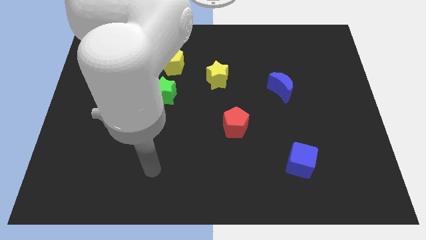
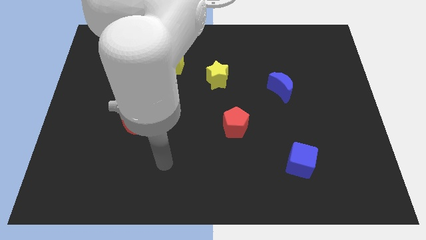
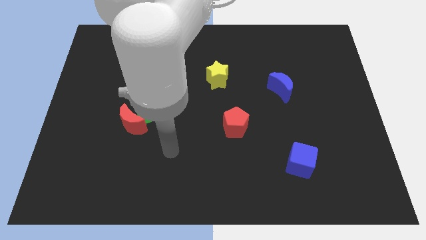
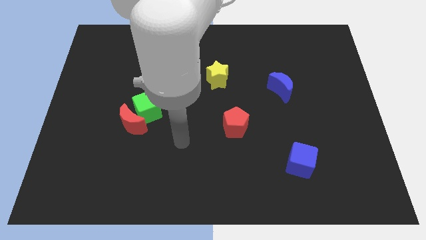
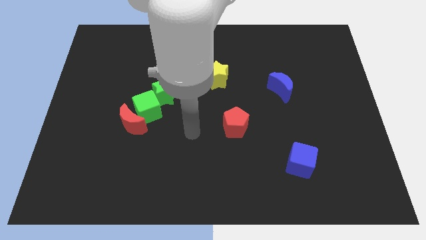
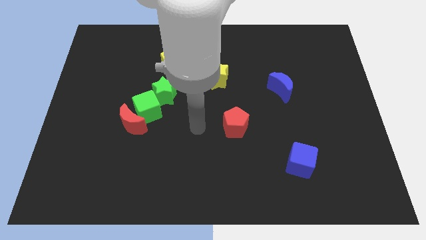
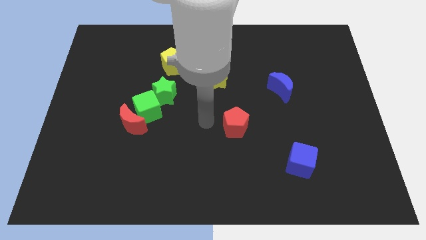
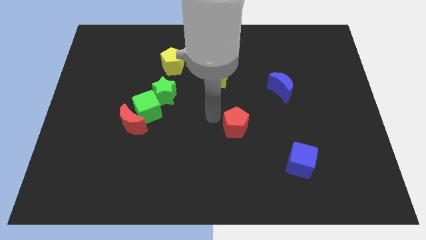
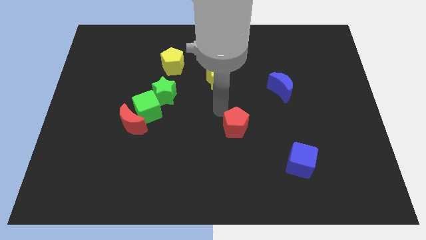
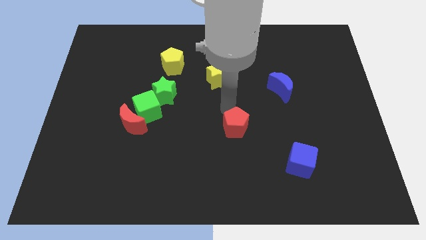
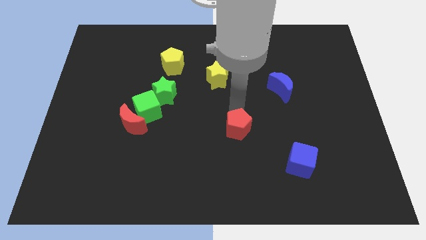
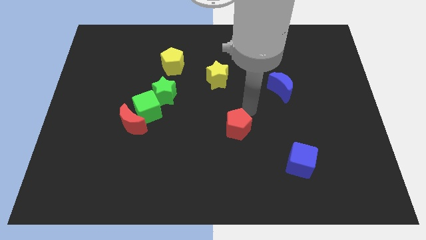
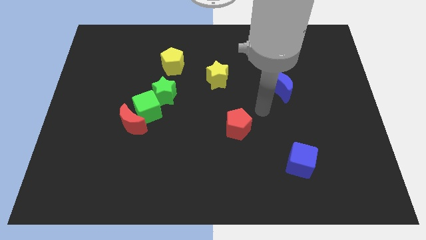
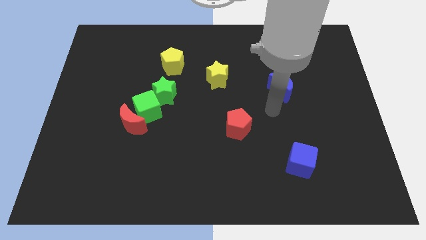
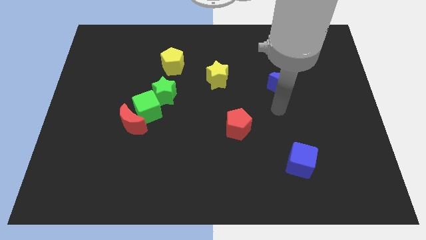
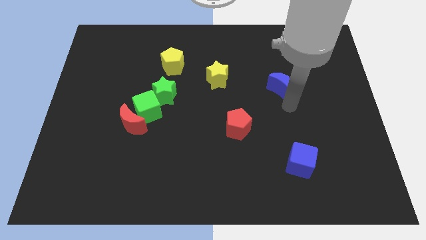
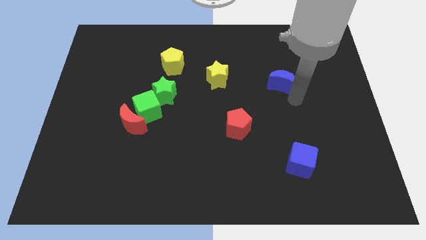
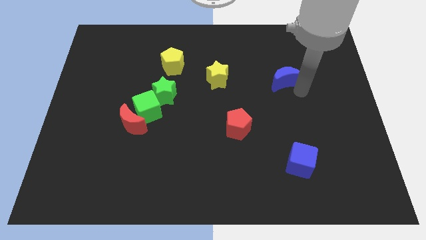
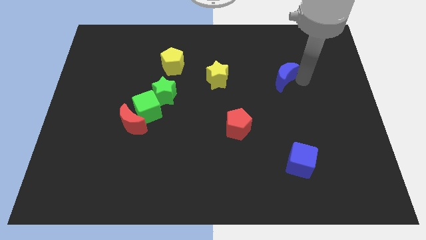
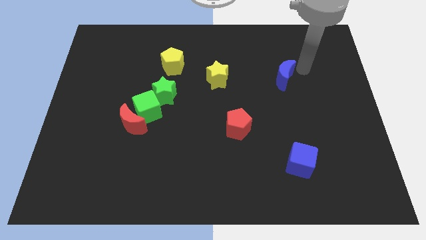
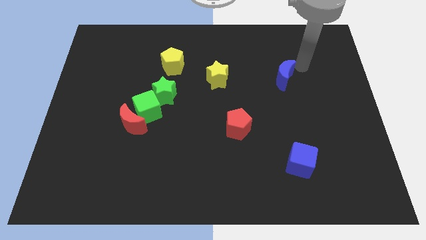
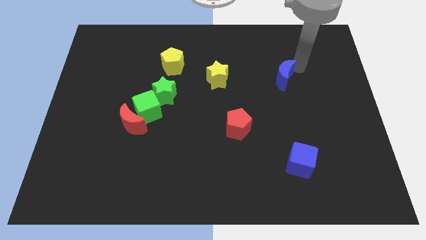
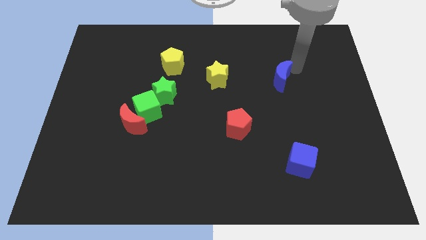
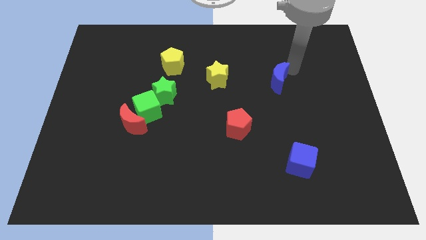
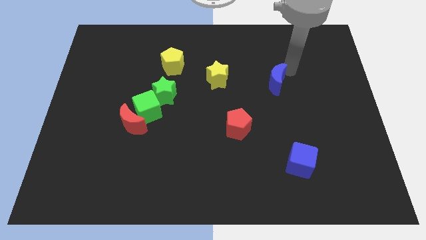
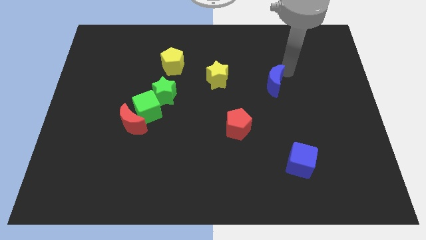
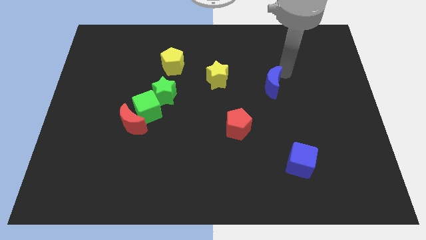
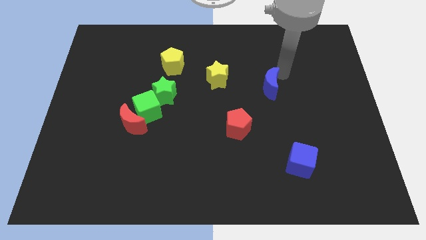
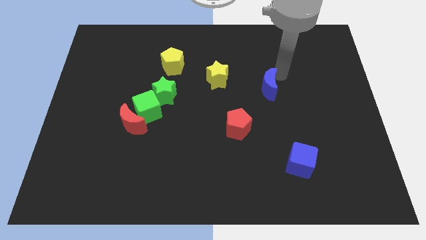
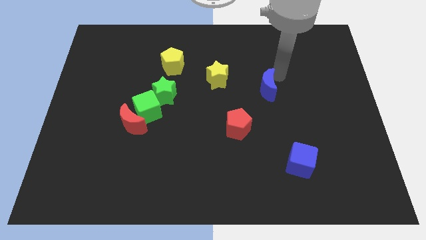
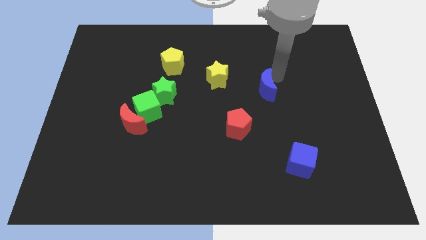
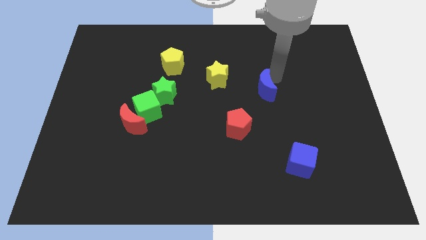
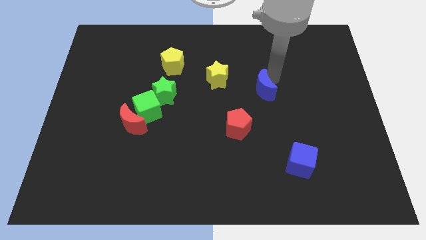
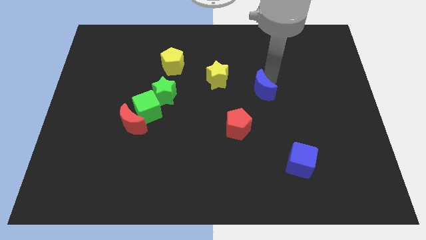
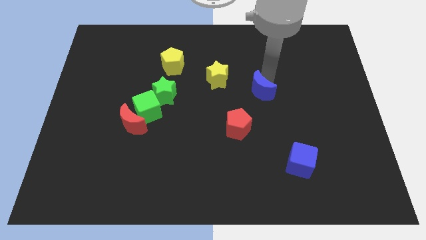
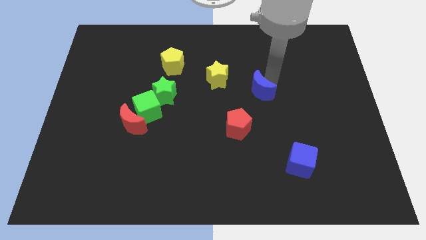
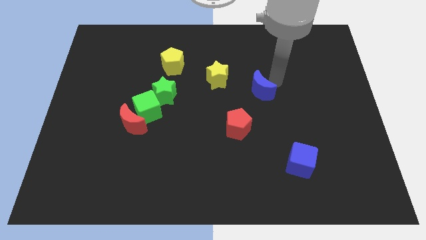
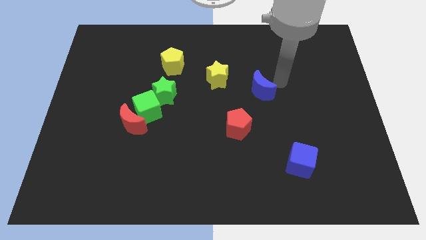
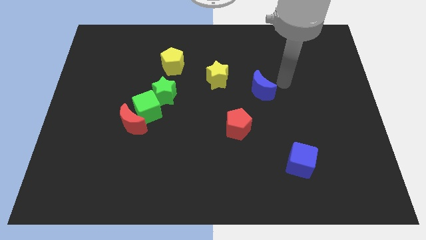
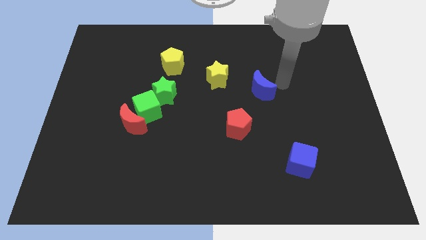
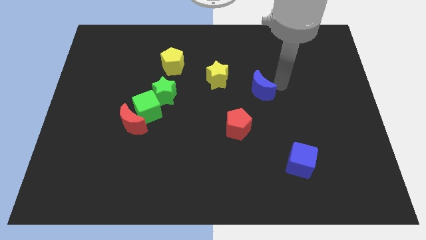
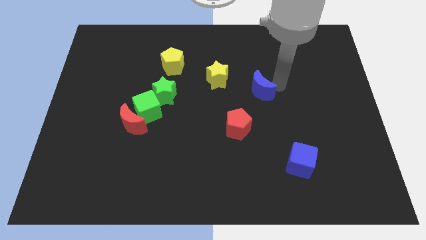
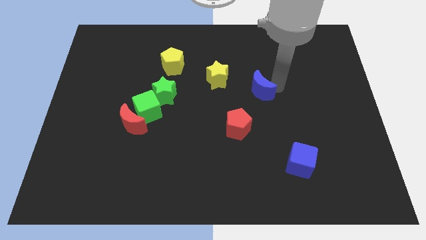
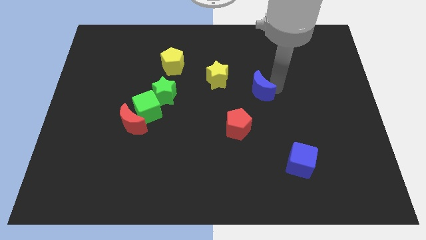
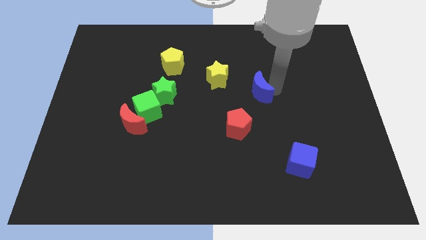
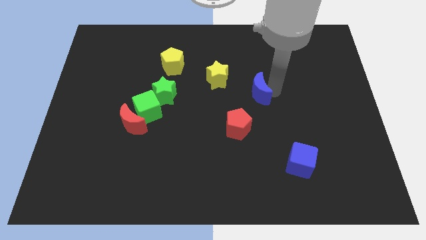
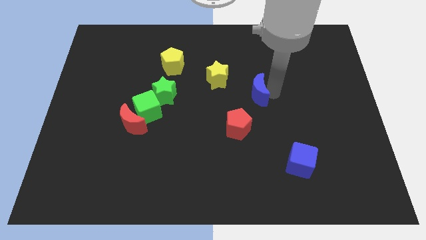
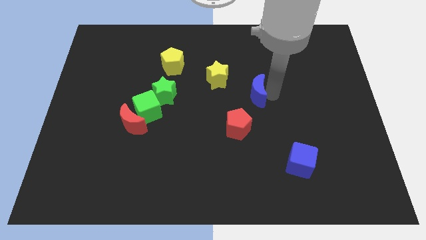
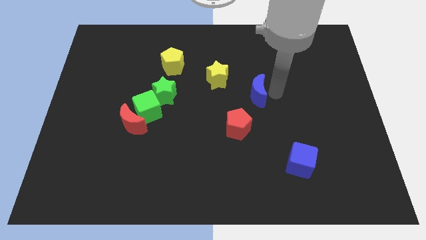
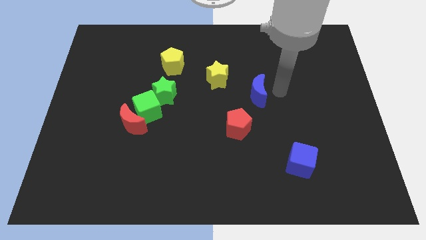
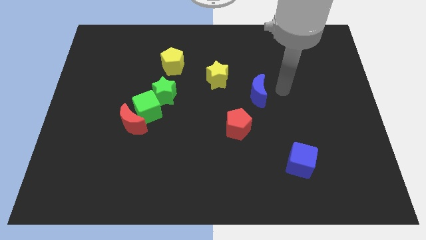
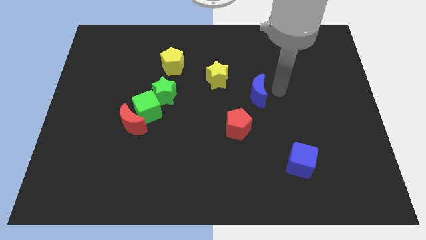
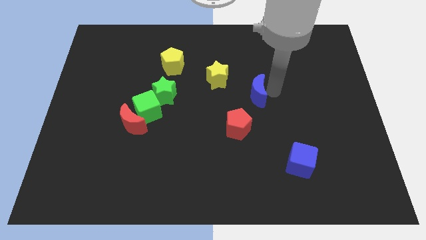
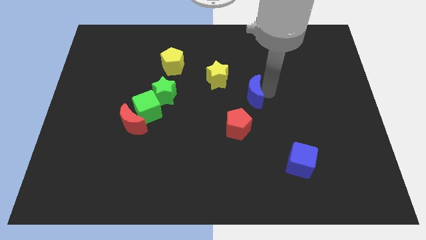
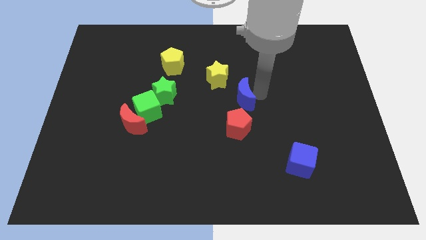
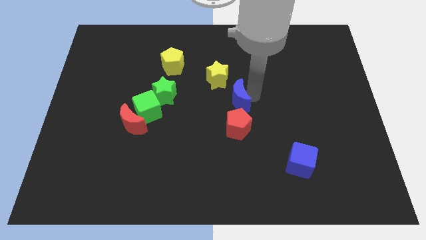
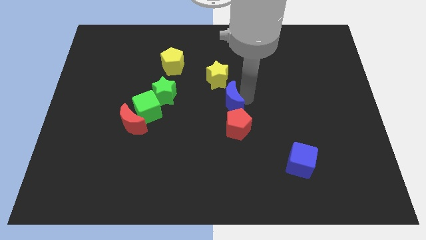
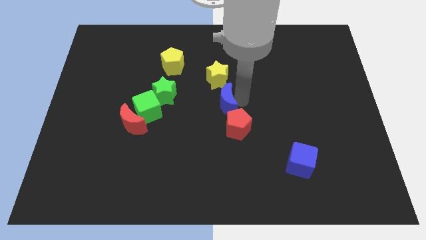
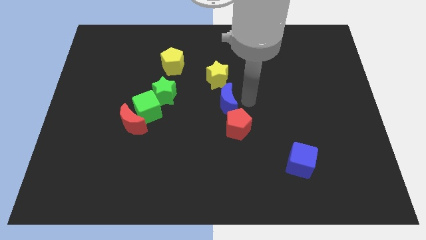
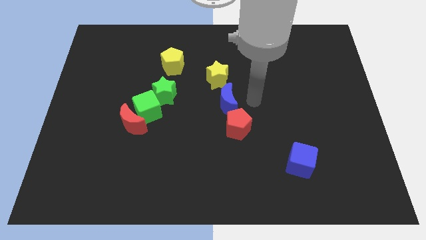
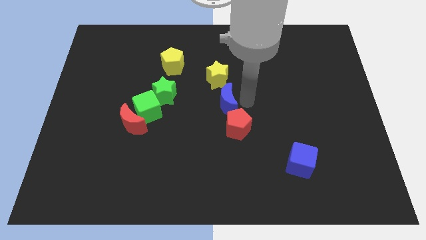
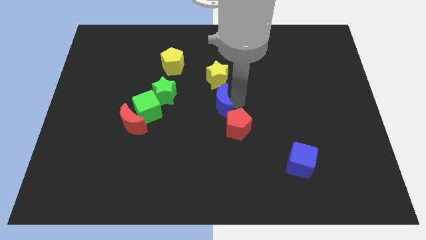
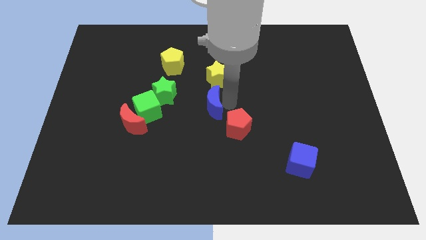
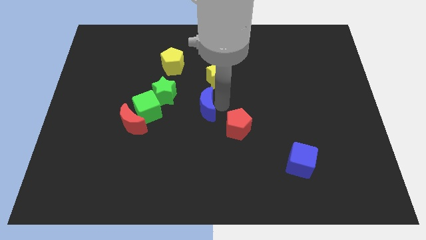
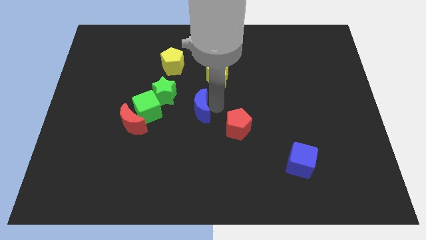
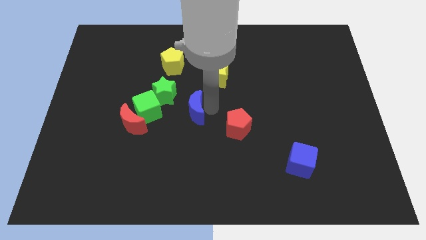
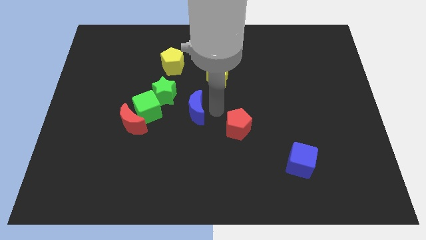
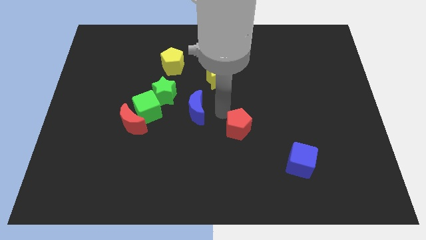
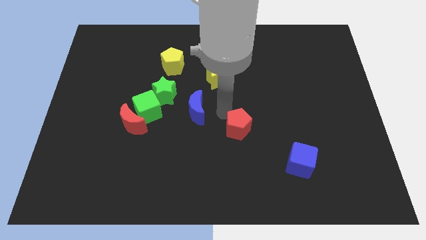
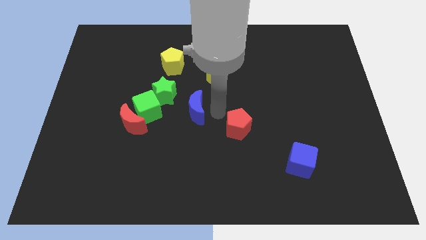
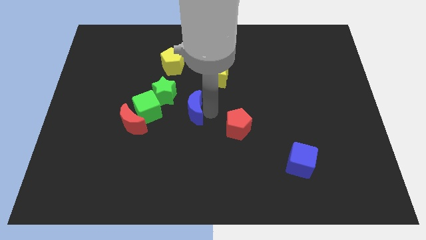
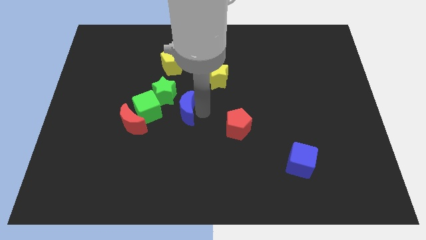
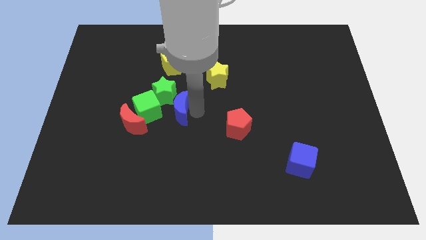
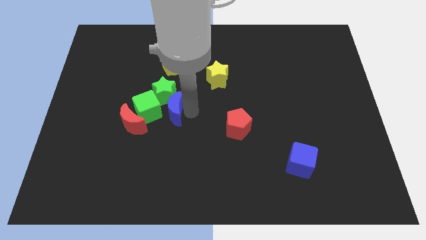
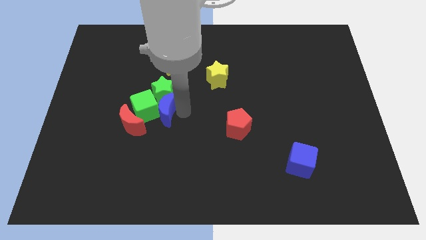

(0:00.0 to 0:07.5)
push the blue moon to the green cube
